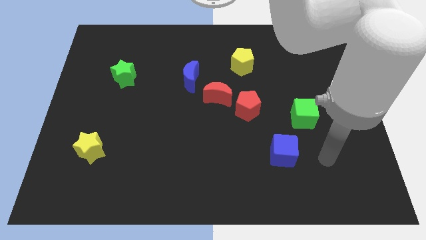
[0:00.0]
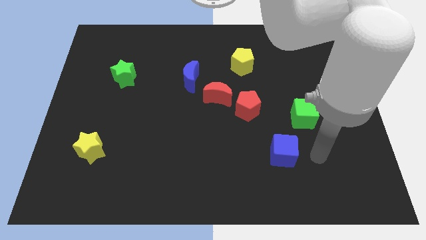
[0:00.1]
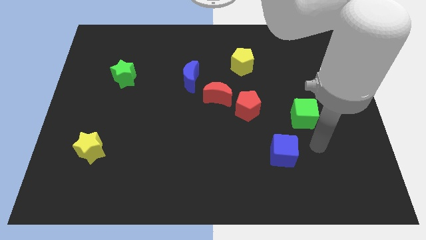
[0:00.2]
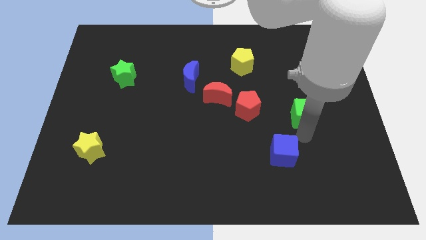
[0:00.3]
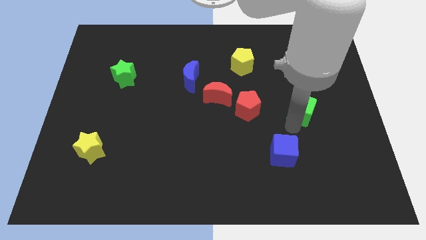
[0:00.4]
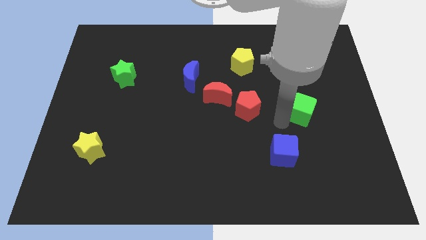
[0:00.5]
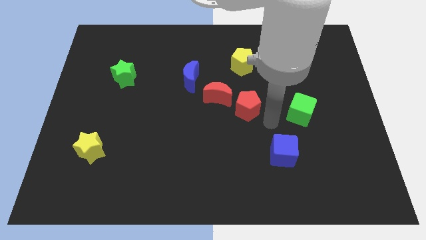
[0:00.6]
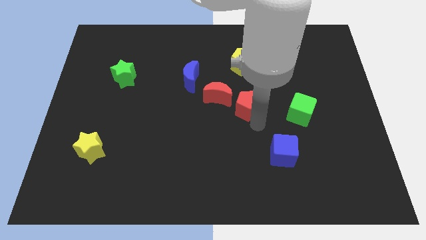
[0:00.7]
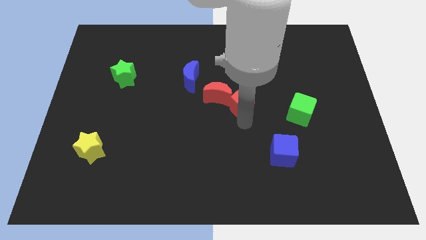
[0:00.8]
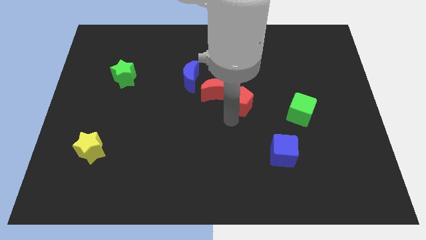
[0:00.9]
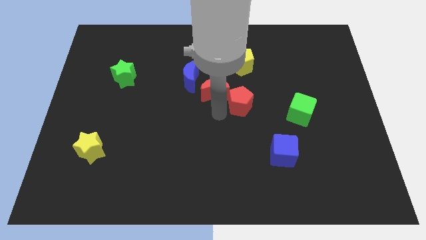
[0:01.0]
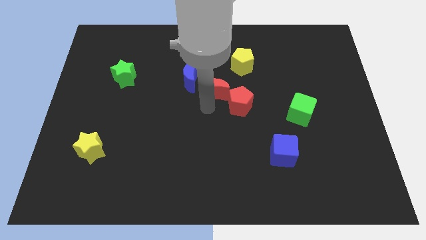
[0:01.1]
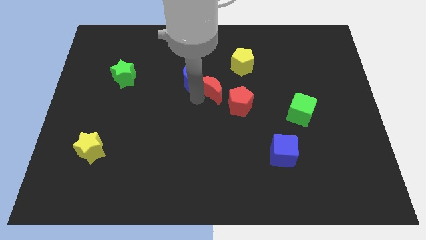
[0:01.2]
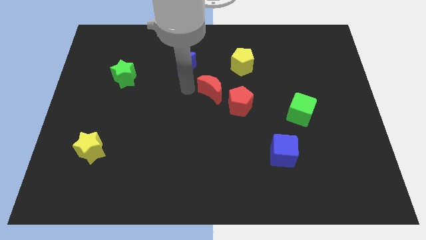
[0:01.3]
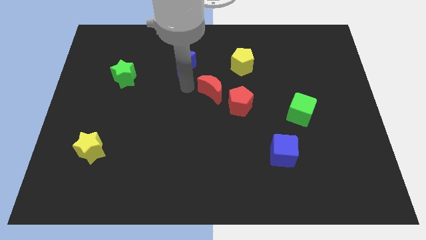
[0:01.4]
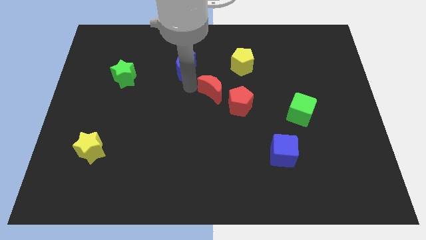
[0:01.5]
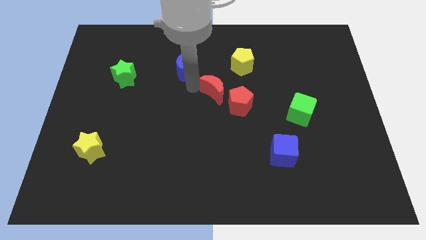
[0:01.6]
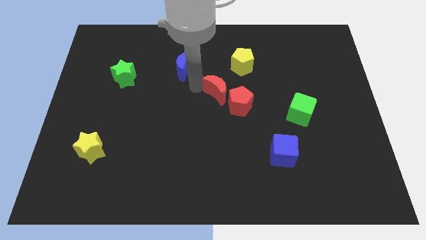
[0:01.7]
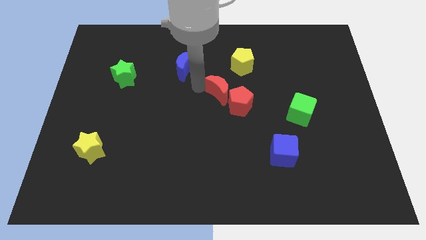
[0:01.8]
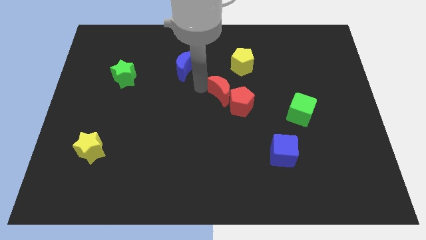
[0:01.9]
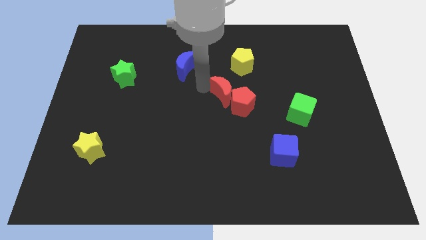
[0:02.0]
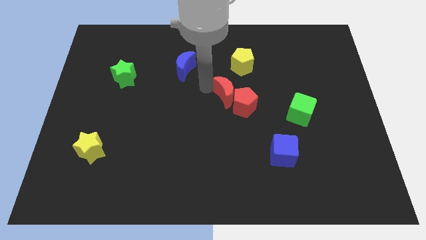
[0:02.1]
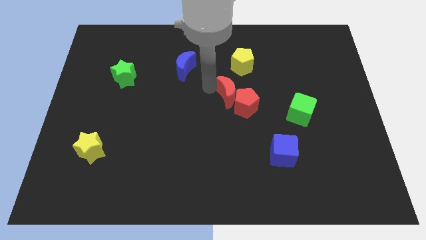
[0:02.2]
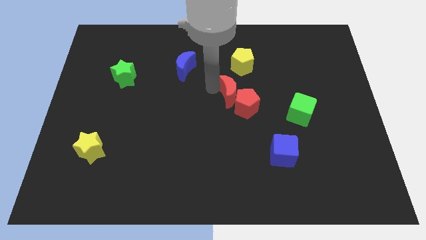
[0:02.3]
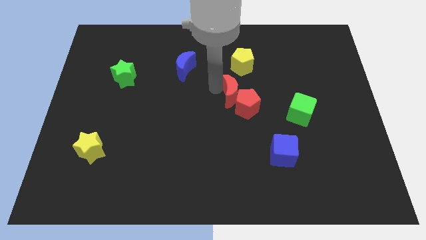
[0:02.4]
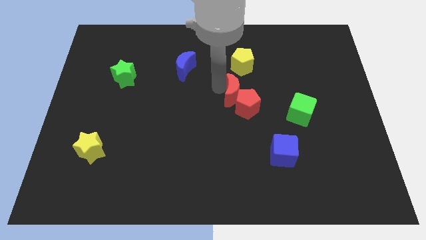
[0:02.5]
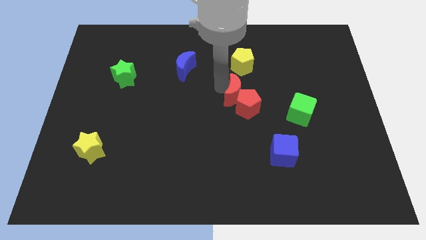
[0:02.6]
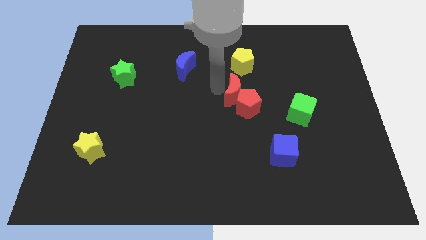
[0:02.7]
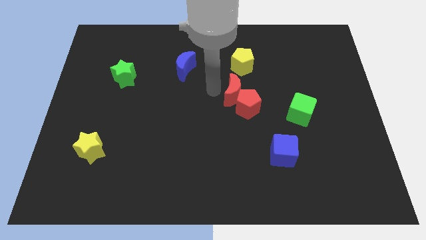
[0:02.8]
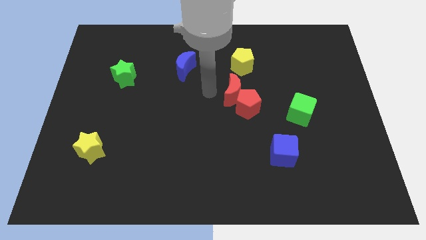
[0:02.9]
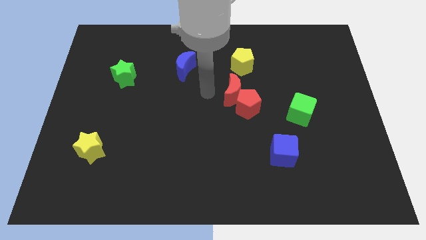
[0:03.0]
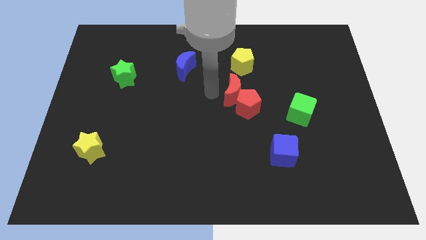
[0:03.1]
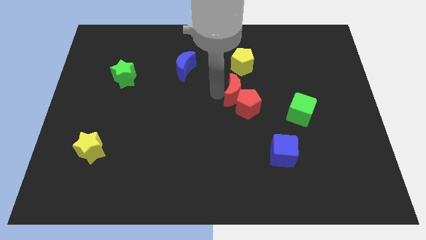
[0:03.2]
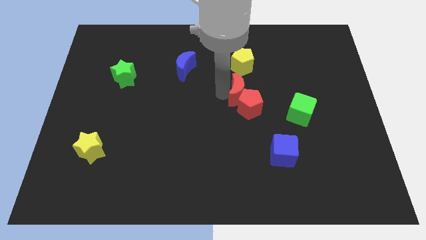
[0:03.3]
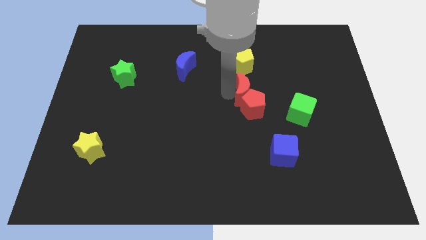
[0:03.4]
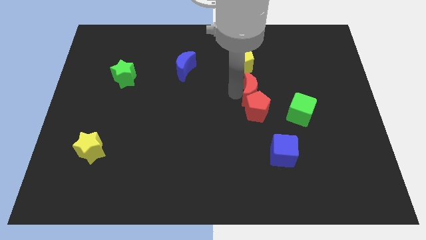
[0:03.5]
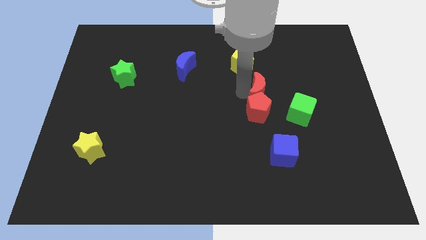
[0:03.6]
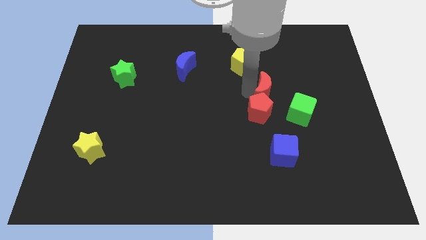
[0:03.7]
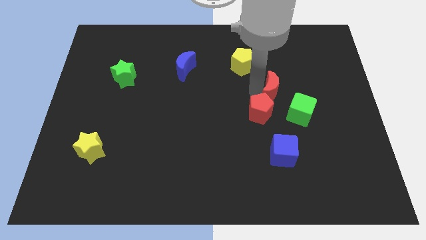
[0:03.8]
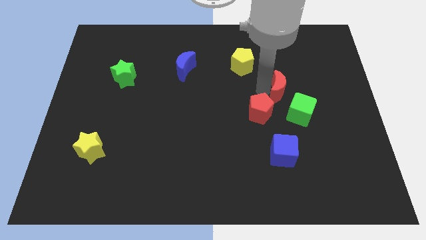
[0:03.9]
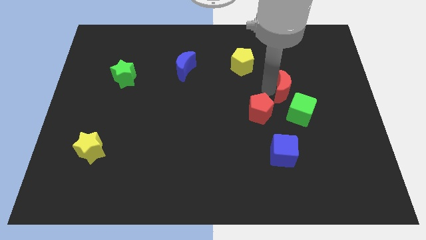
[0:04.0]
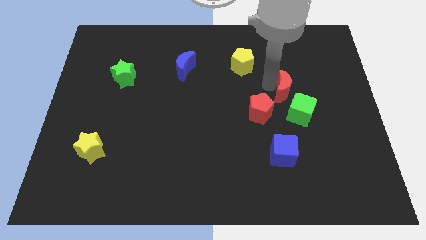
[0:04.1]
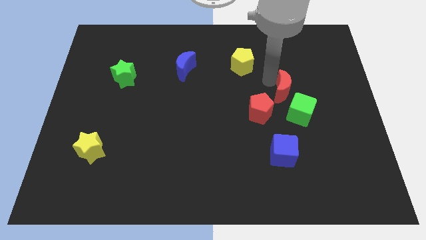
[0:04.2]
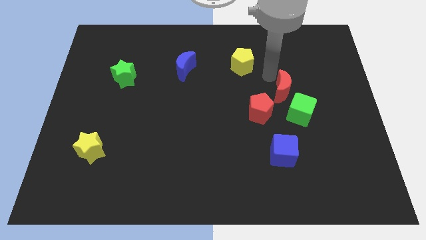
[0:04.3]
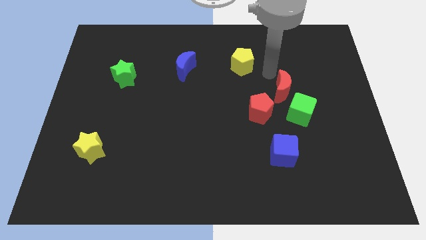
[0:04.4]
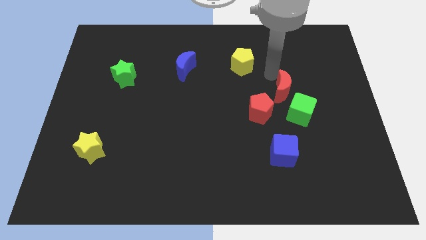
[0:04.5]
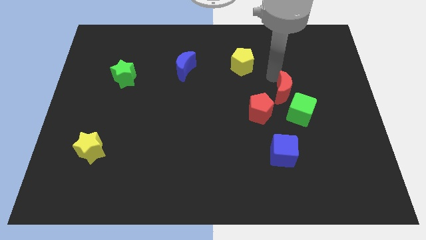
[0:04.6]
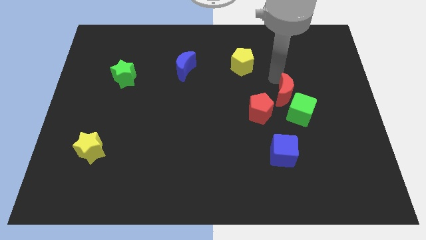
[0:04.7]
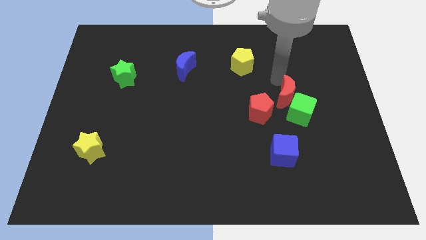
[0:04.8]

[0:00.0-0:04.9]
slide the red moon towards the green cube

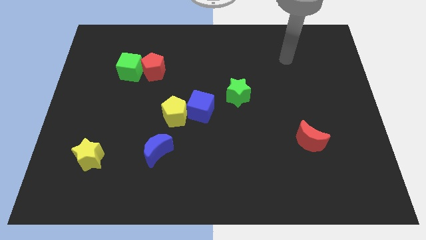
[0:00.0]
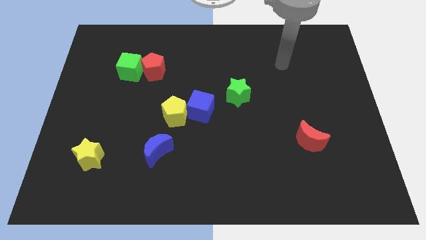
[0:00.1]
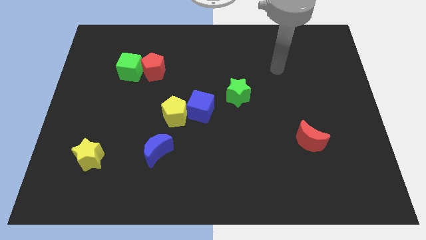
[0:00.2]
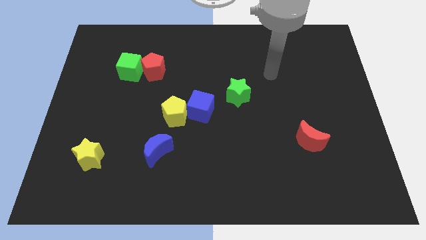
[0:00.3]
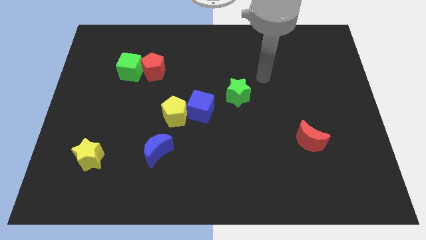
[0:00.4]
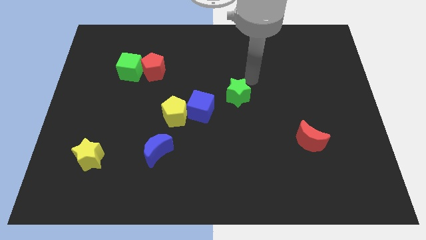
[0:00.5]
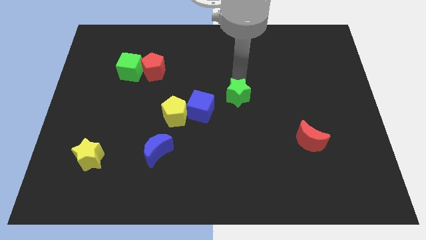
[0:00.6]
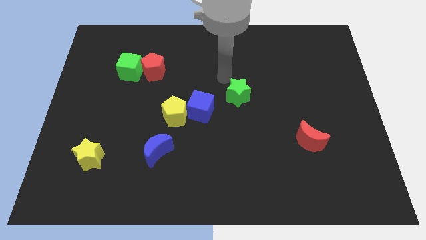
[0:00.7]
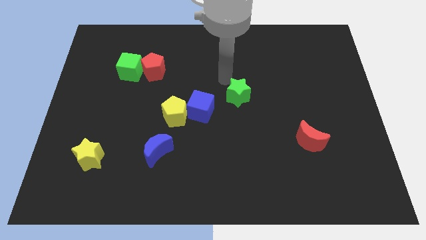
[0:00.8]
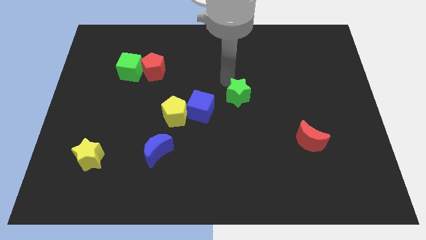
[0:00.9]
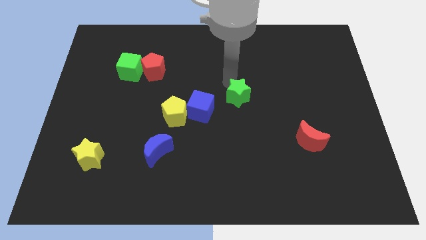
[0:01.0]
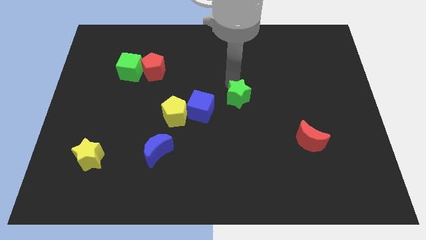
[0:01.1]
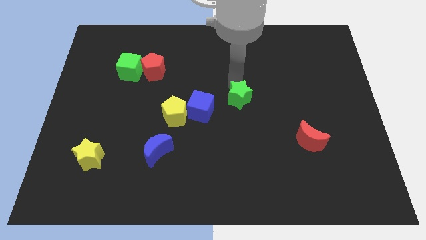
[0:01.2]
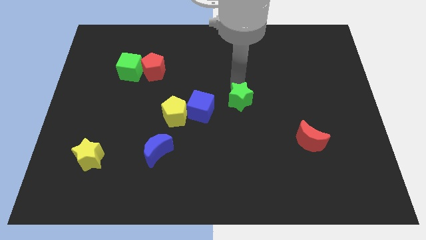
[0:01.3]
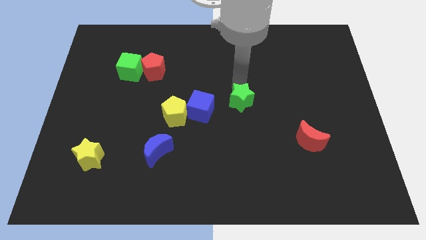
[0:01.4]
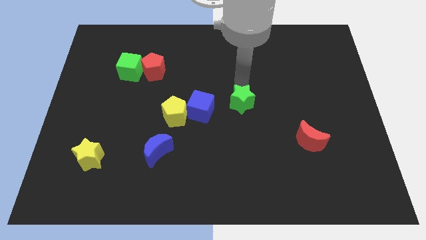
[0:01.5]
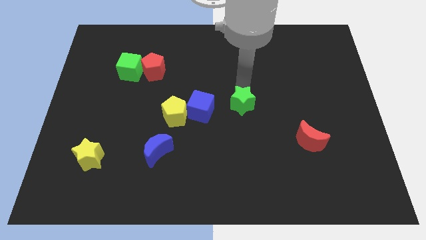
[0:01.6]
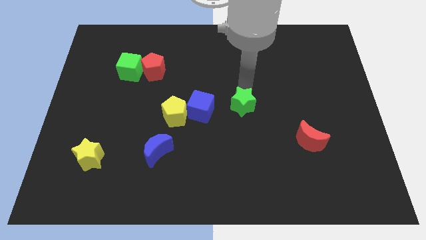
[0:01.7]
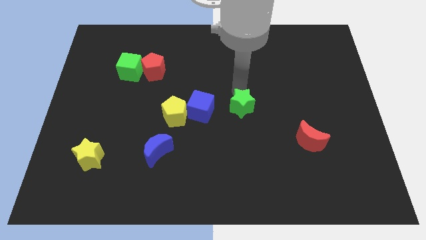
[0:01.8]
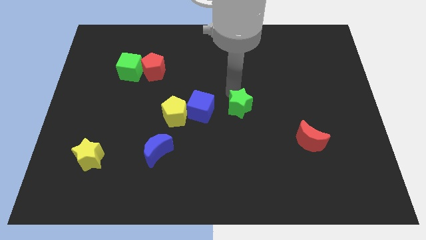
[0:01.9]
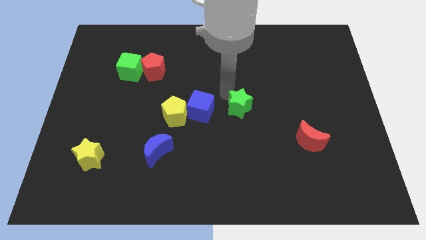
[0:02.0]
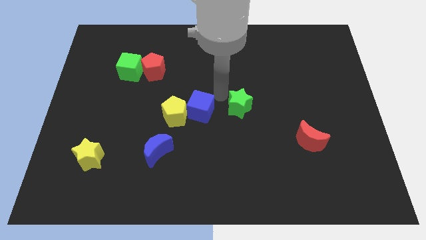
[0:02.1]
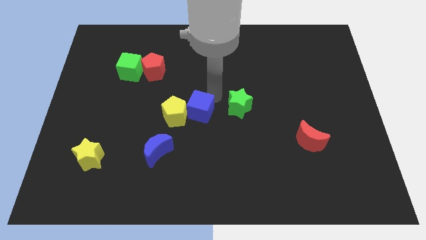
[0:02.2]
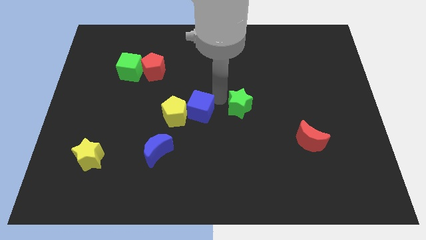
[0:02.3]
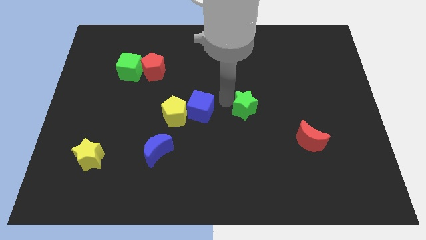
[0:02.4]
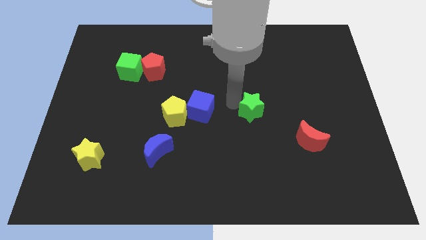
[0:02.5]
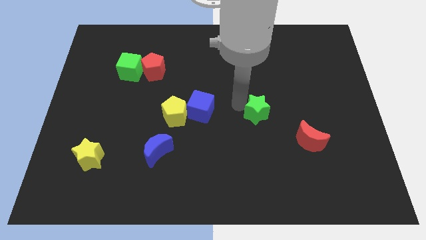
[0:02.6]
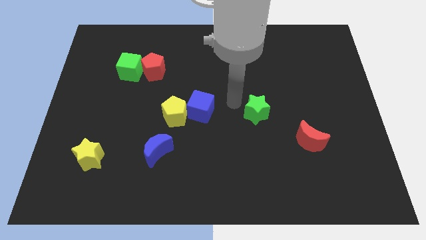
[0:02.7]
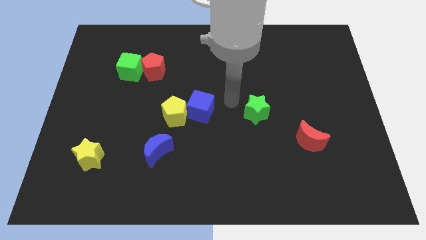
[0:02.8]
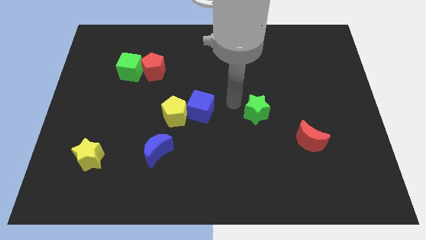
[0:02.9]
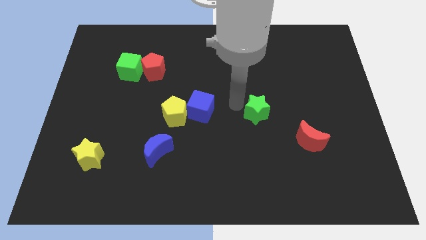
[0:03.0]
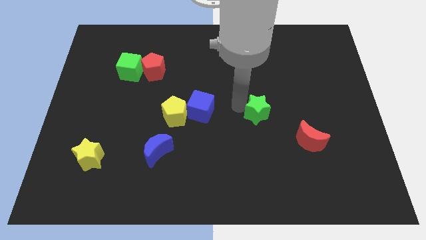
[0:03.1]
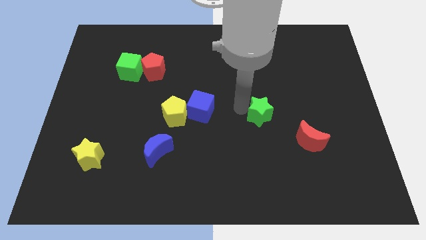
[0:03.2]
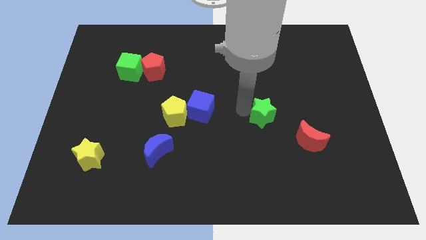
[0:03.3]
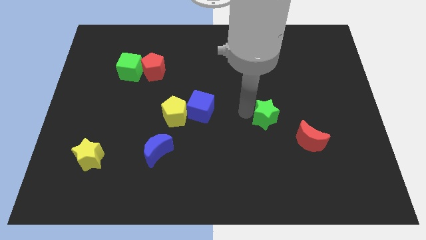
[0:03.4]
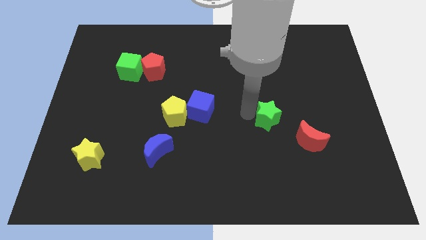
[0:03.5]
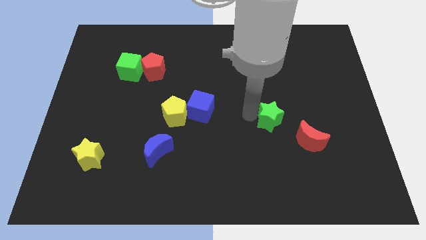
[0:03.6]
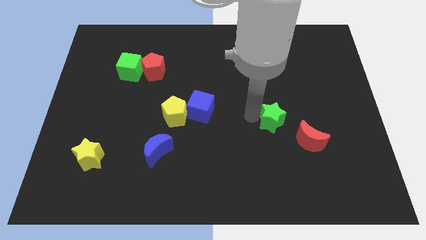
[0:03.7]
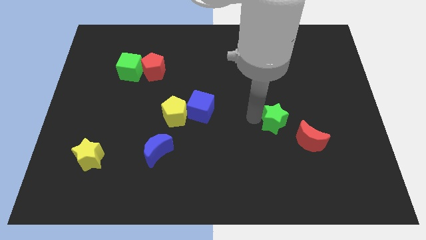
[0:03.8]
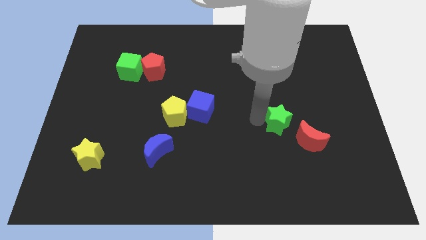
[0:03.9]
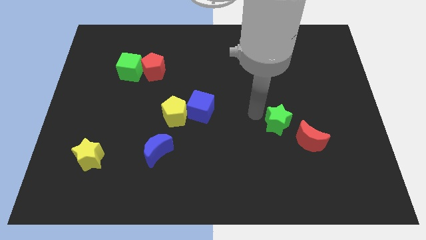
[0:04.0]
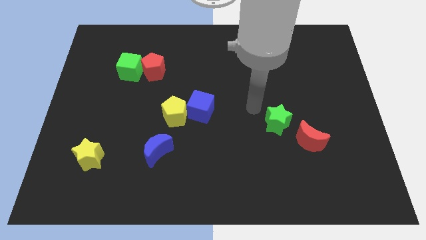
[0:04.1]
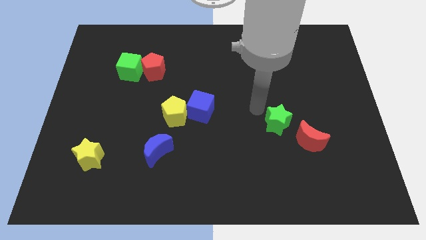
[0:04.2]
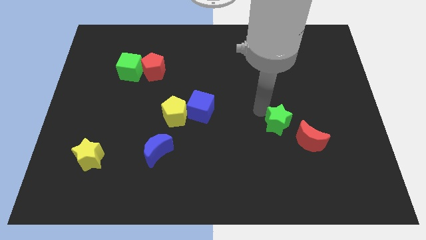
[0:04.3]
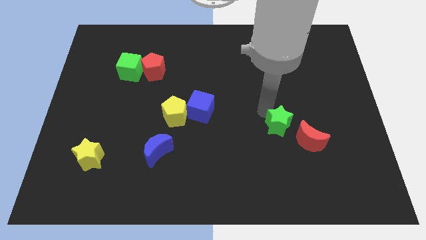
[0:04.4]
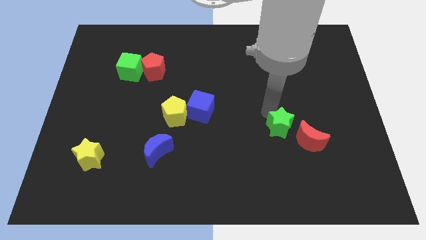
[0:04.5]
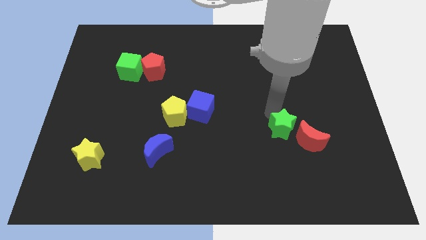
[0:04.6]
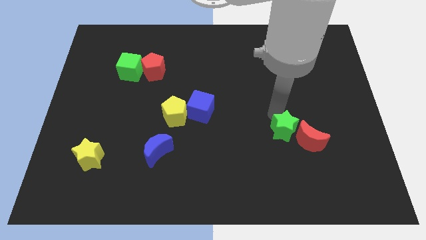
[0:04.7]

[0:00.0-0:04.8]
put the green star to the red moon
